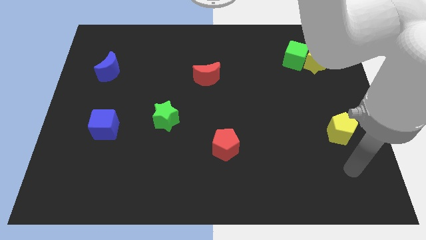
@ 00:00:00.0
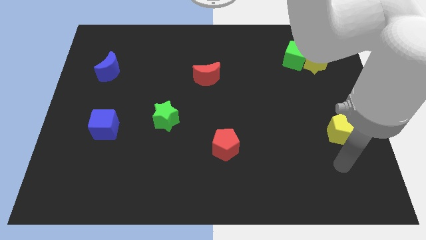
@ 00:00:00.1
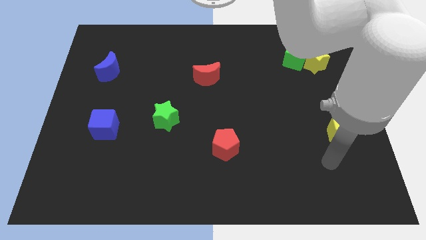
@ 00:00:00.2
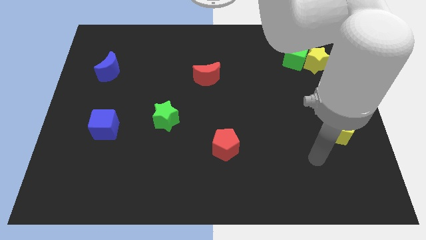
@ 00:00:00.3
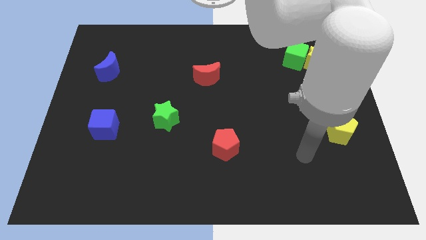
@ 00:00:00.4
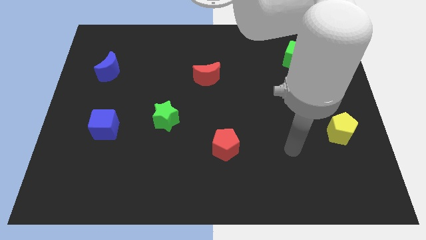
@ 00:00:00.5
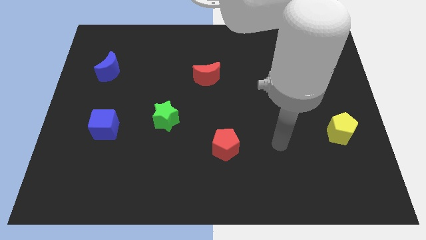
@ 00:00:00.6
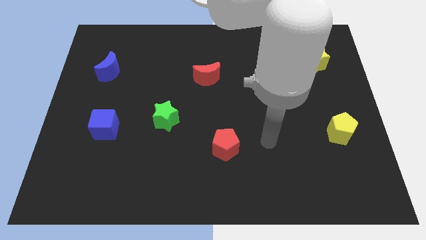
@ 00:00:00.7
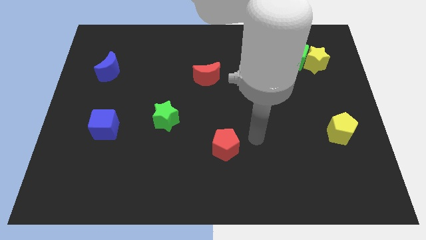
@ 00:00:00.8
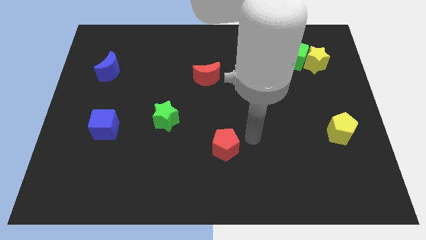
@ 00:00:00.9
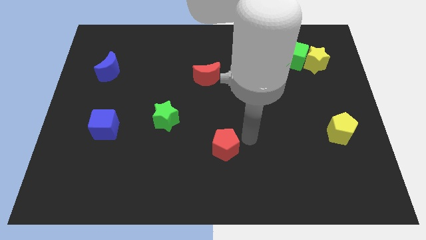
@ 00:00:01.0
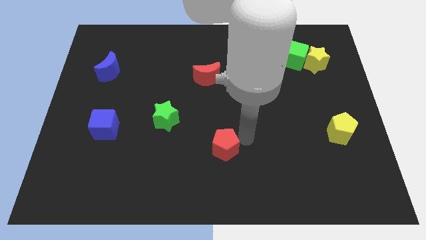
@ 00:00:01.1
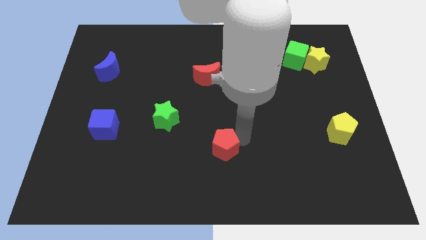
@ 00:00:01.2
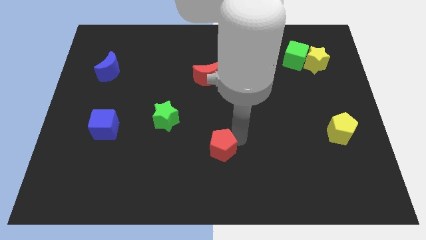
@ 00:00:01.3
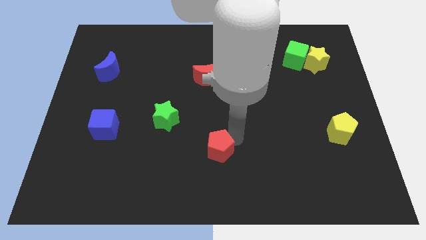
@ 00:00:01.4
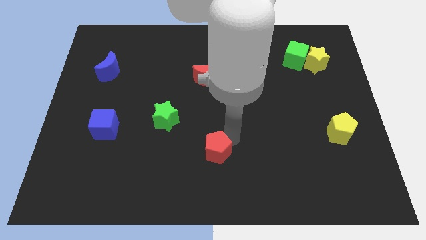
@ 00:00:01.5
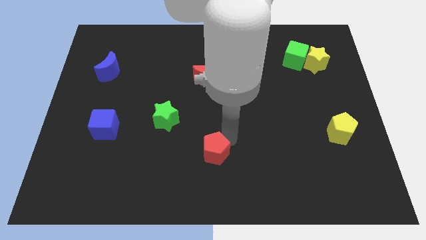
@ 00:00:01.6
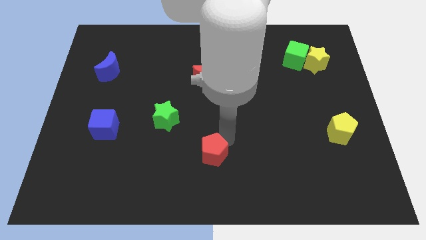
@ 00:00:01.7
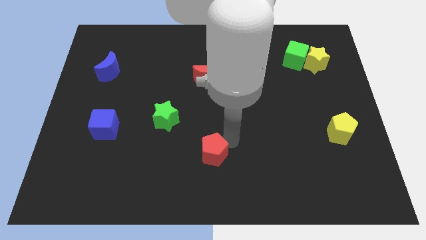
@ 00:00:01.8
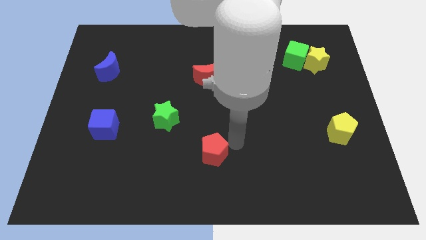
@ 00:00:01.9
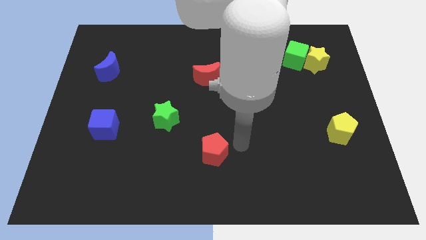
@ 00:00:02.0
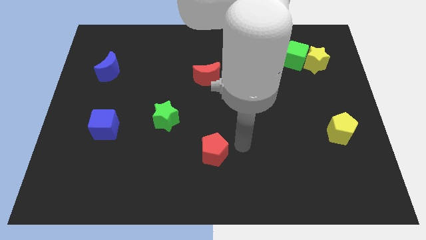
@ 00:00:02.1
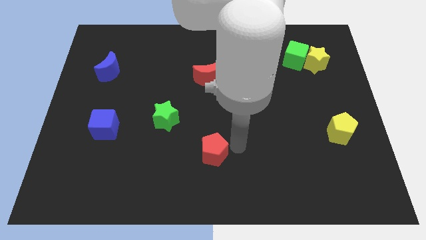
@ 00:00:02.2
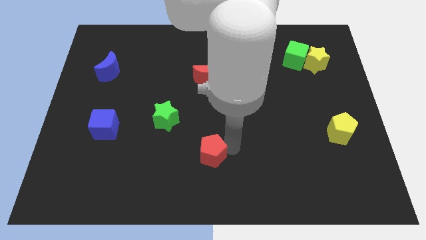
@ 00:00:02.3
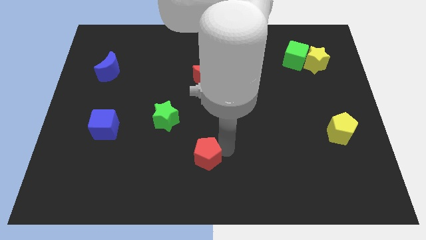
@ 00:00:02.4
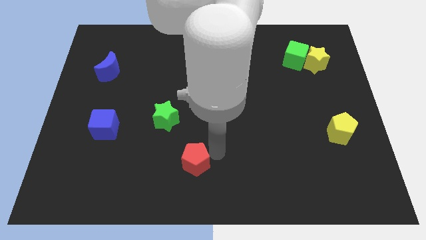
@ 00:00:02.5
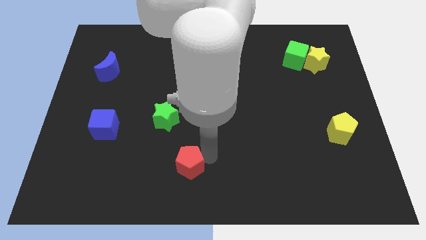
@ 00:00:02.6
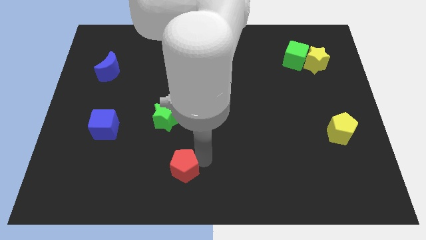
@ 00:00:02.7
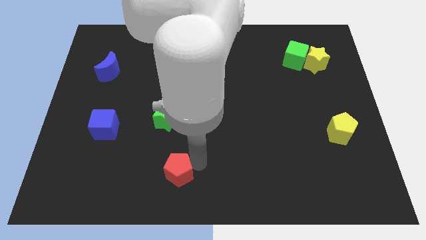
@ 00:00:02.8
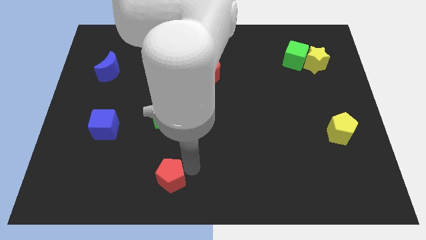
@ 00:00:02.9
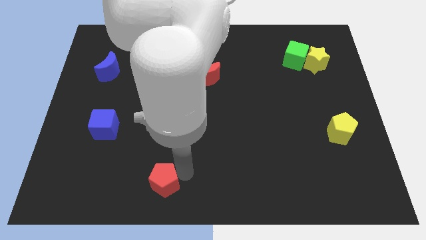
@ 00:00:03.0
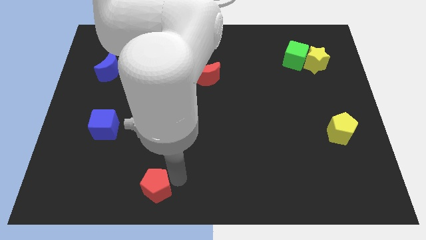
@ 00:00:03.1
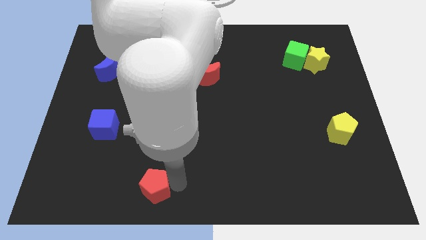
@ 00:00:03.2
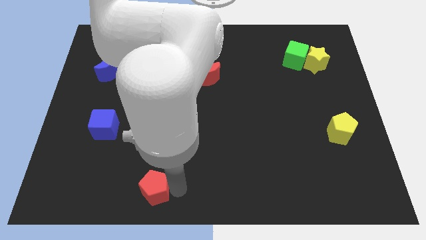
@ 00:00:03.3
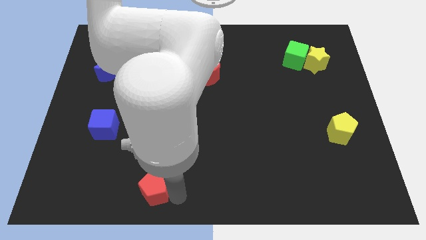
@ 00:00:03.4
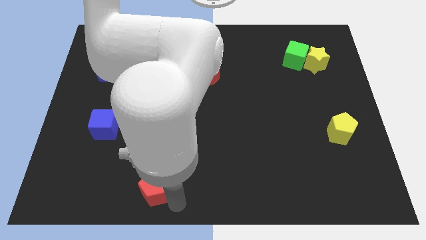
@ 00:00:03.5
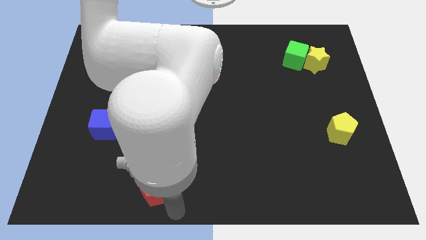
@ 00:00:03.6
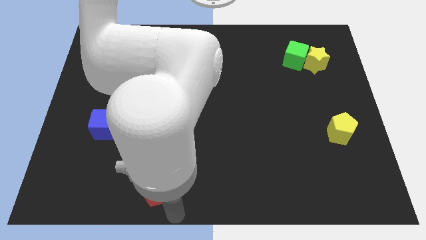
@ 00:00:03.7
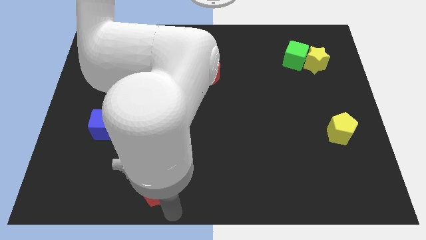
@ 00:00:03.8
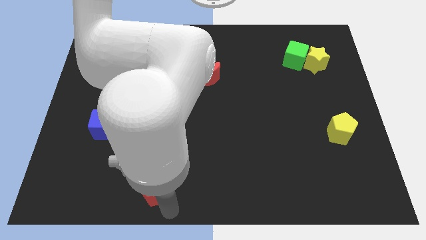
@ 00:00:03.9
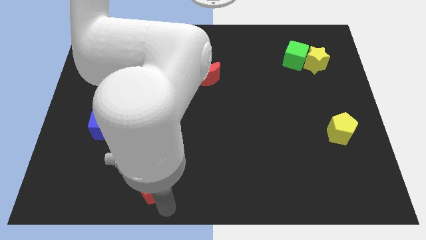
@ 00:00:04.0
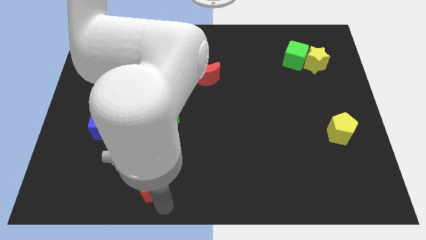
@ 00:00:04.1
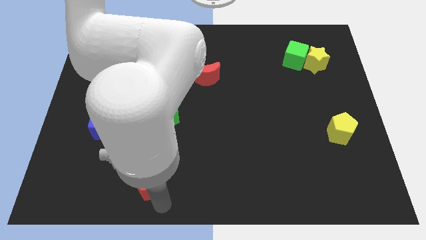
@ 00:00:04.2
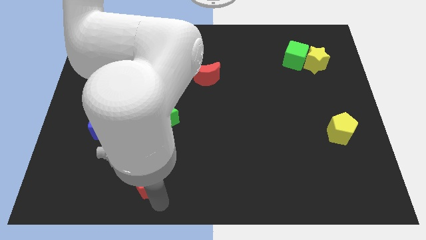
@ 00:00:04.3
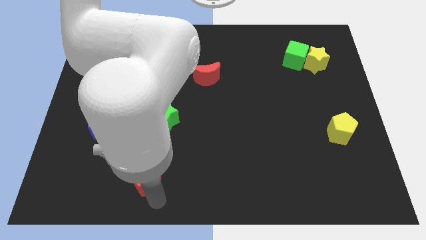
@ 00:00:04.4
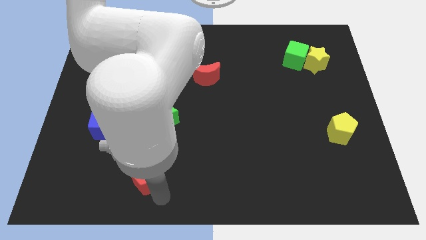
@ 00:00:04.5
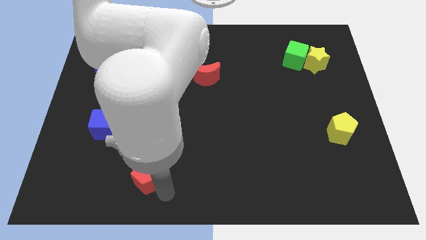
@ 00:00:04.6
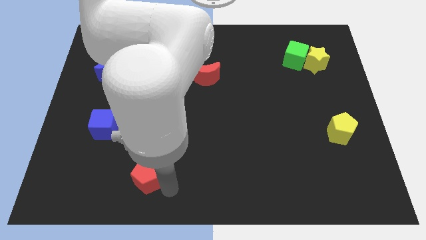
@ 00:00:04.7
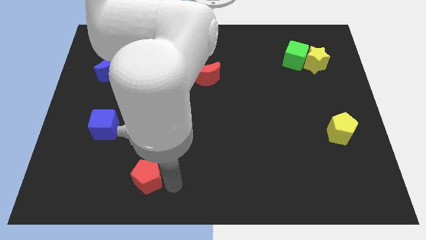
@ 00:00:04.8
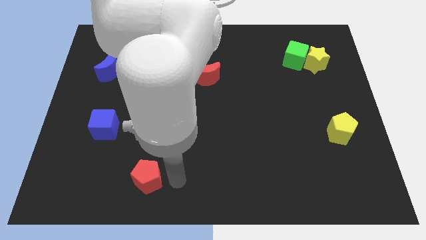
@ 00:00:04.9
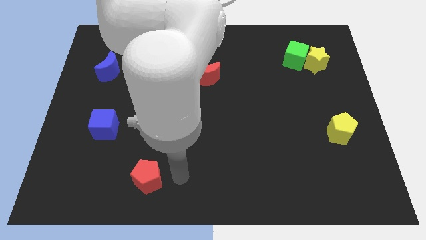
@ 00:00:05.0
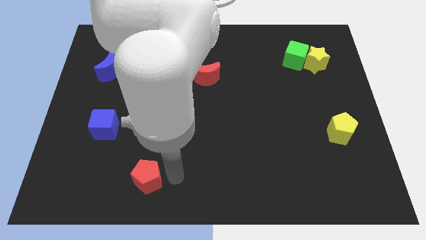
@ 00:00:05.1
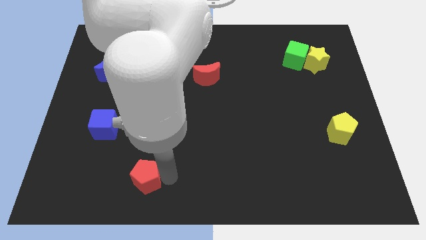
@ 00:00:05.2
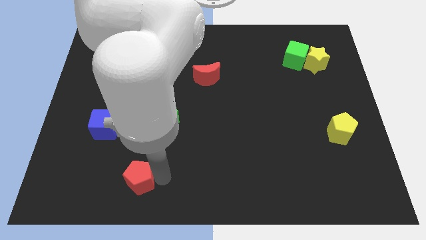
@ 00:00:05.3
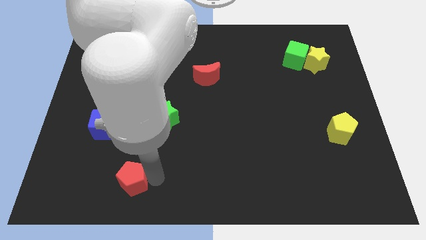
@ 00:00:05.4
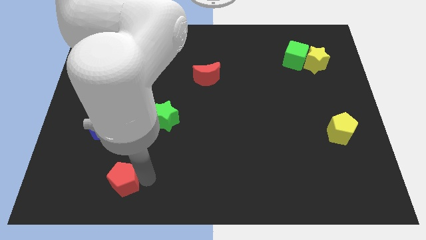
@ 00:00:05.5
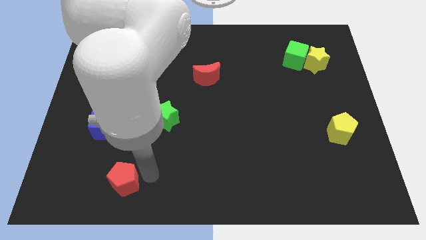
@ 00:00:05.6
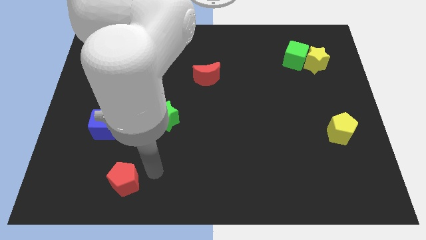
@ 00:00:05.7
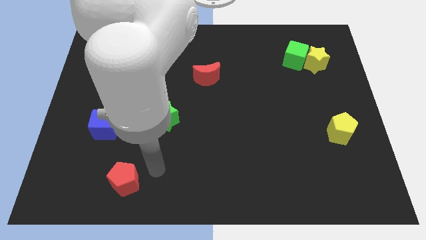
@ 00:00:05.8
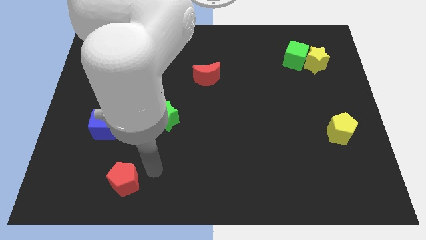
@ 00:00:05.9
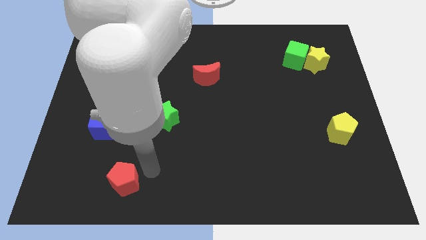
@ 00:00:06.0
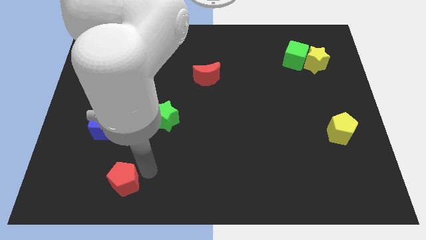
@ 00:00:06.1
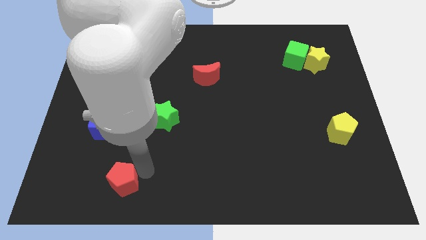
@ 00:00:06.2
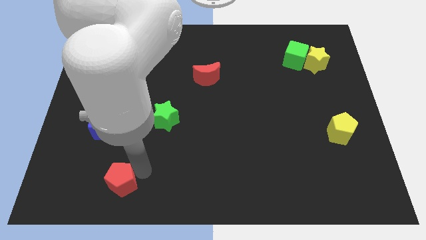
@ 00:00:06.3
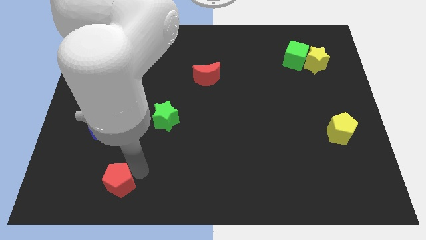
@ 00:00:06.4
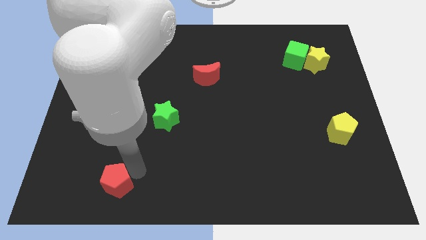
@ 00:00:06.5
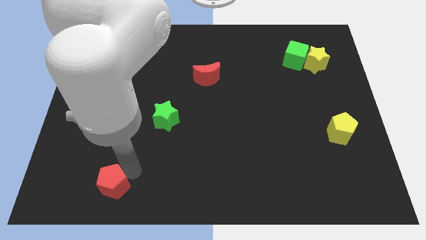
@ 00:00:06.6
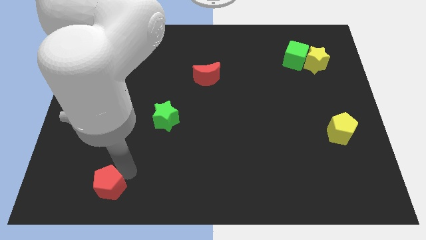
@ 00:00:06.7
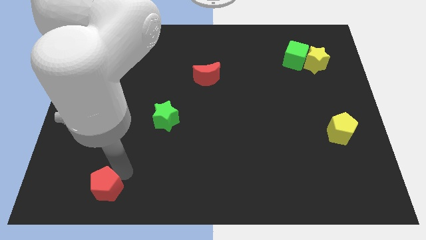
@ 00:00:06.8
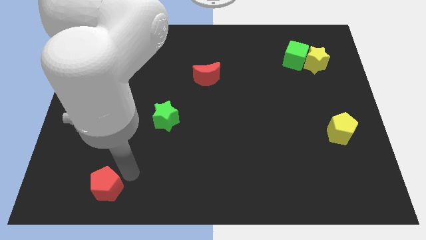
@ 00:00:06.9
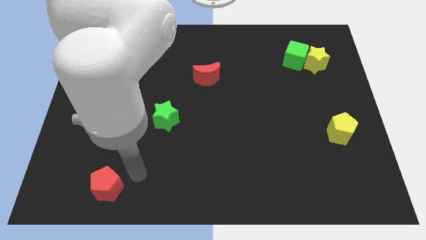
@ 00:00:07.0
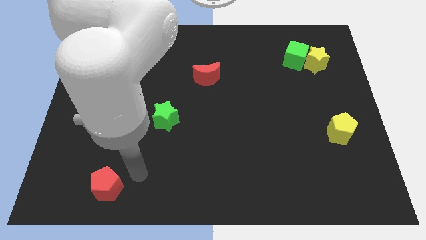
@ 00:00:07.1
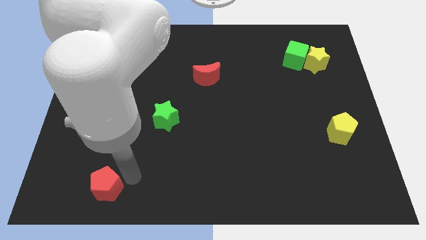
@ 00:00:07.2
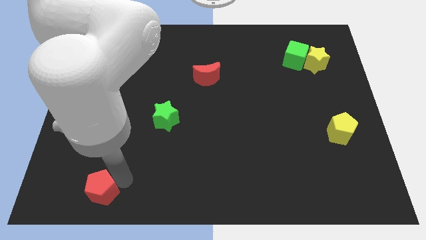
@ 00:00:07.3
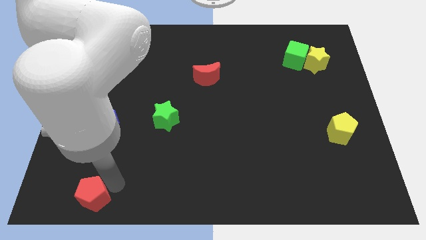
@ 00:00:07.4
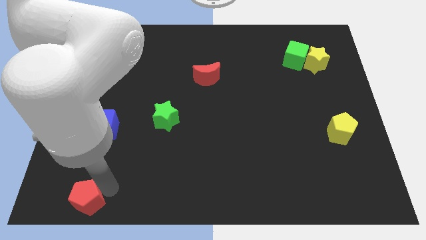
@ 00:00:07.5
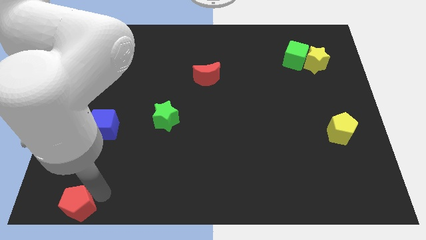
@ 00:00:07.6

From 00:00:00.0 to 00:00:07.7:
move the red pentagon to the bottom left
